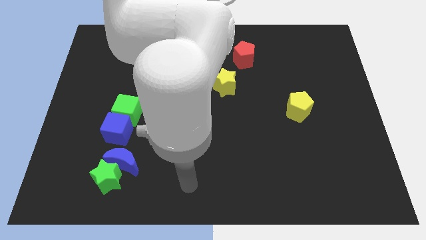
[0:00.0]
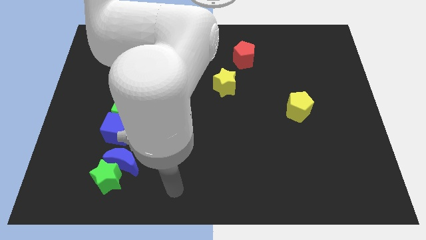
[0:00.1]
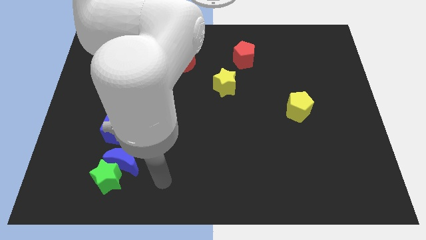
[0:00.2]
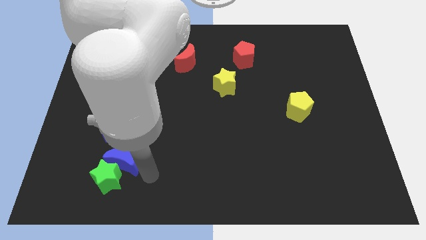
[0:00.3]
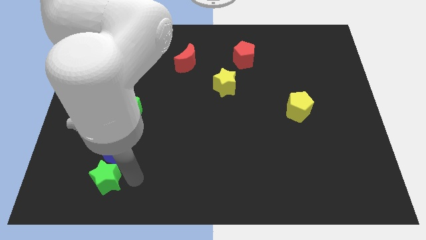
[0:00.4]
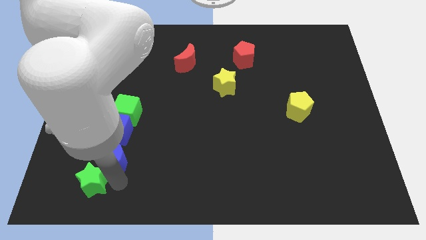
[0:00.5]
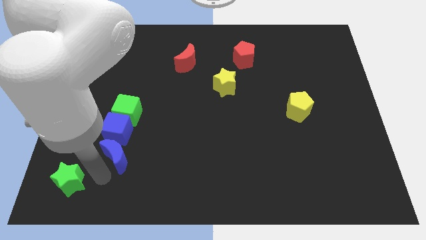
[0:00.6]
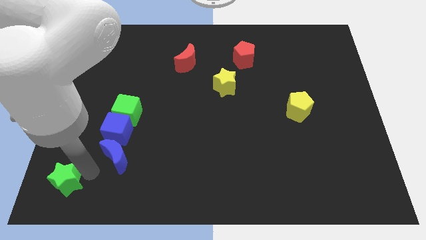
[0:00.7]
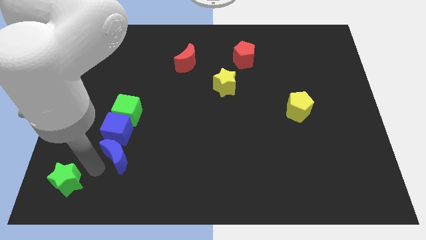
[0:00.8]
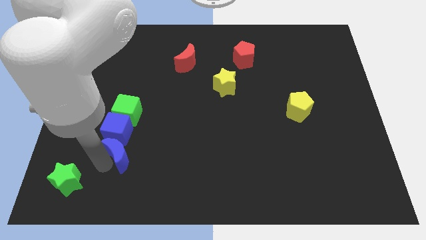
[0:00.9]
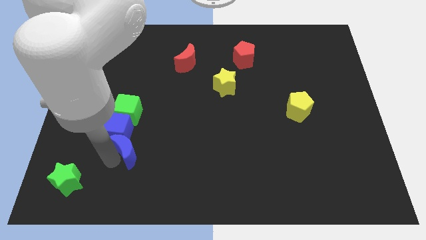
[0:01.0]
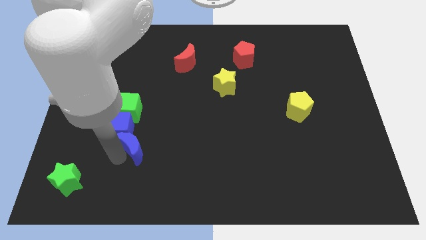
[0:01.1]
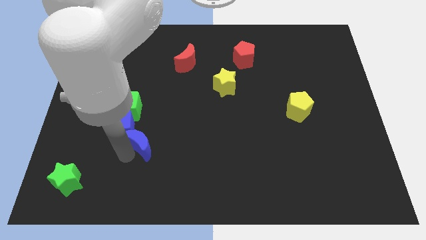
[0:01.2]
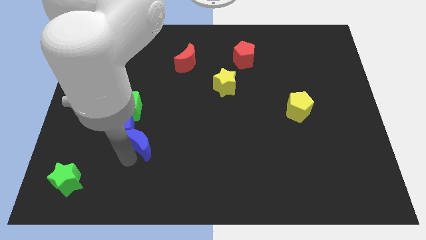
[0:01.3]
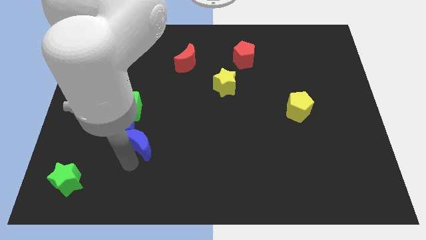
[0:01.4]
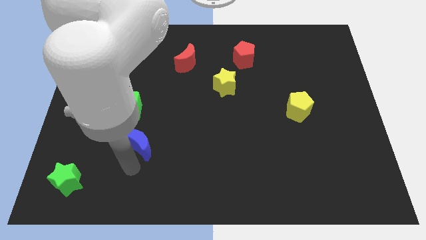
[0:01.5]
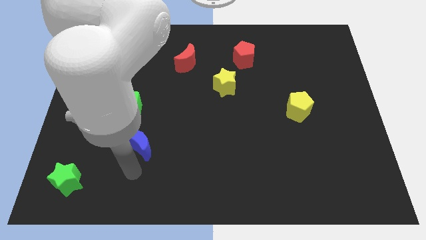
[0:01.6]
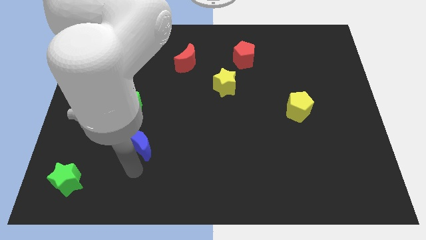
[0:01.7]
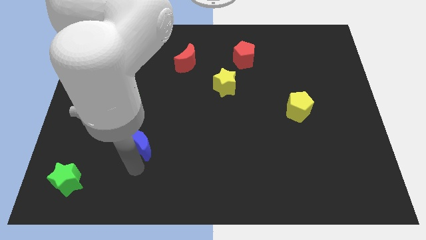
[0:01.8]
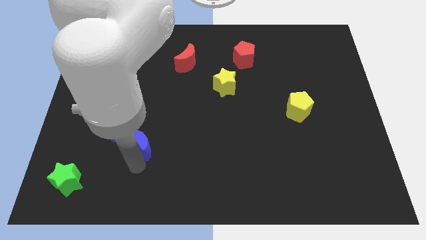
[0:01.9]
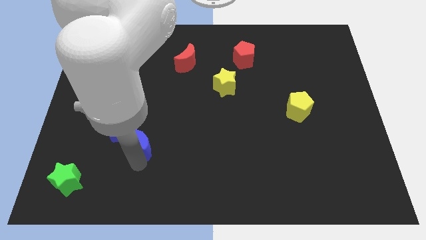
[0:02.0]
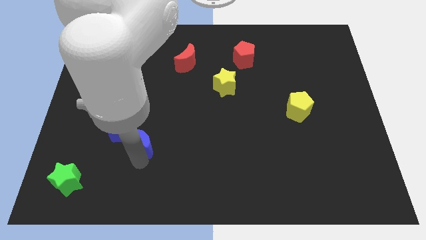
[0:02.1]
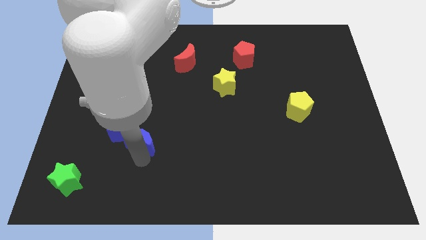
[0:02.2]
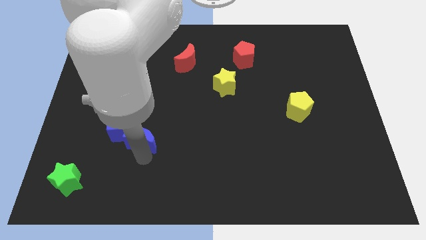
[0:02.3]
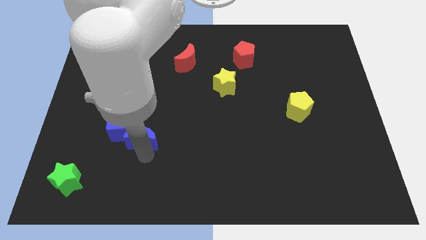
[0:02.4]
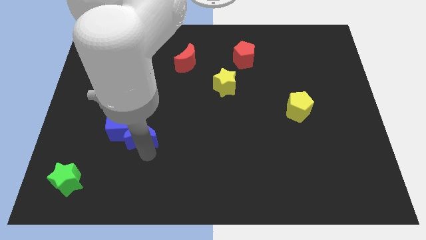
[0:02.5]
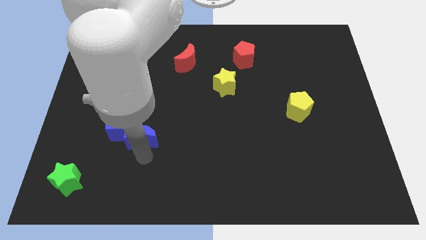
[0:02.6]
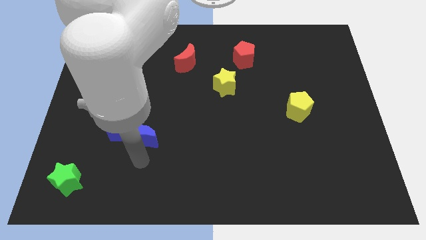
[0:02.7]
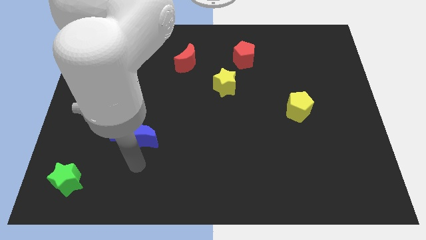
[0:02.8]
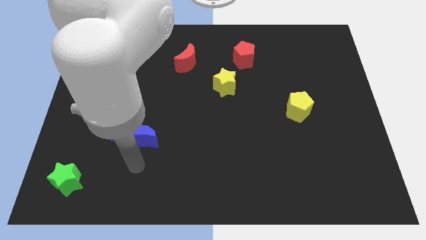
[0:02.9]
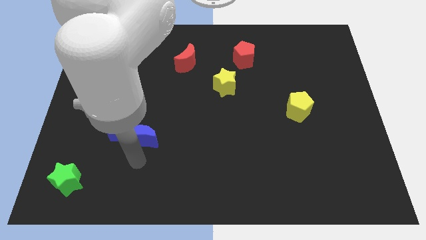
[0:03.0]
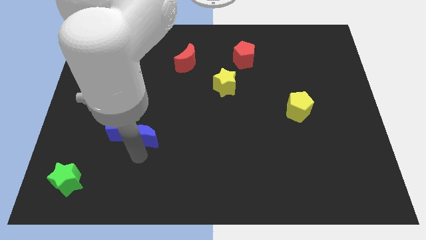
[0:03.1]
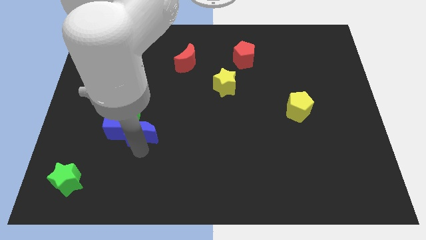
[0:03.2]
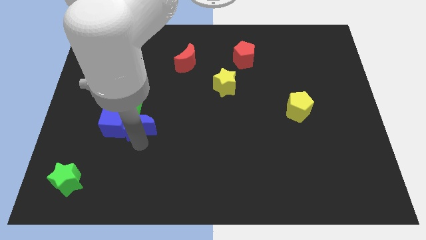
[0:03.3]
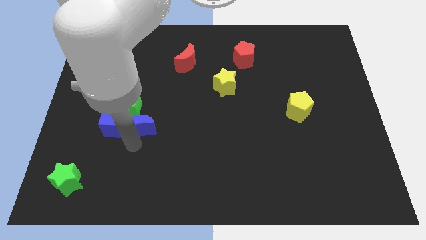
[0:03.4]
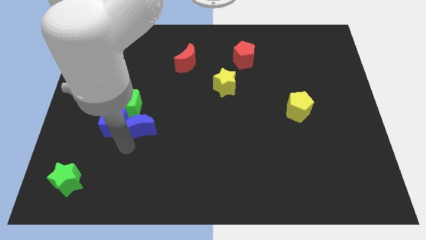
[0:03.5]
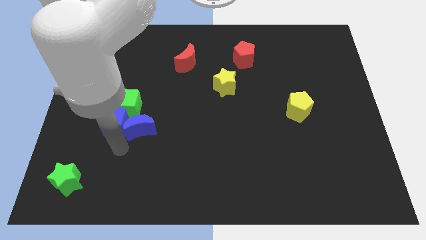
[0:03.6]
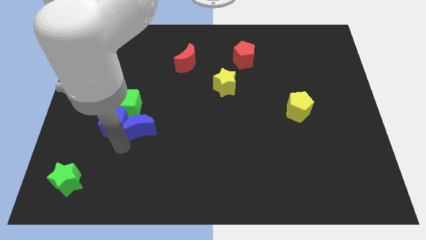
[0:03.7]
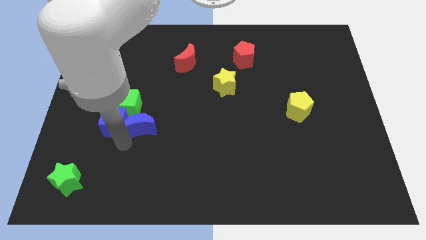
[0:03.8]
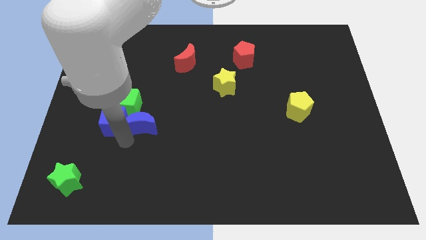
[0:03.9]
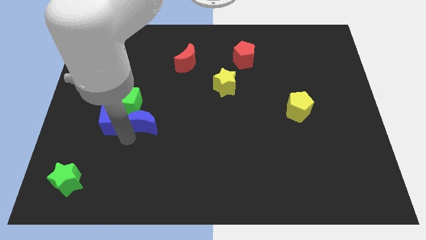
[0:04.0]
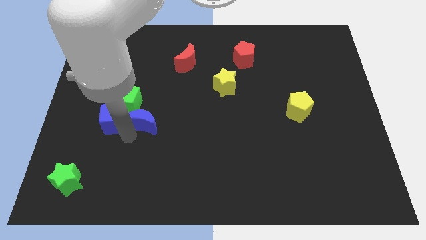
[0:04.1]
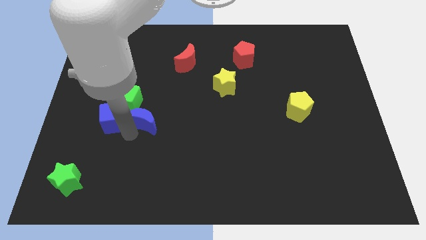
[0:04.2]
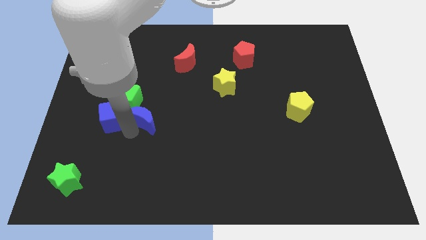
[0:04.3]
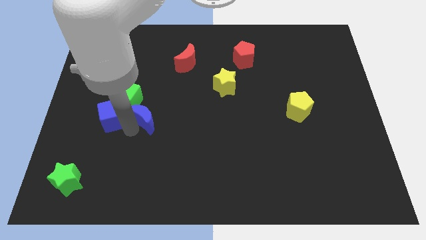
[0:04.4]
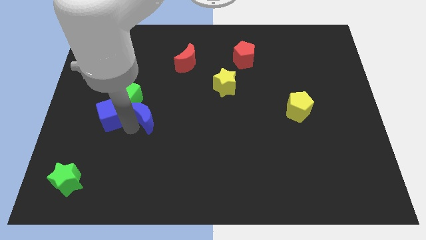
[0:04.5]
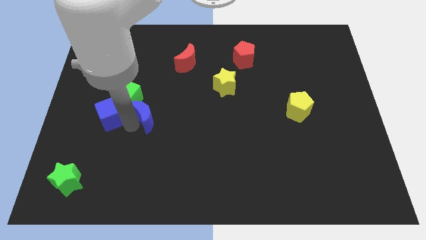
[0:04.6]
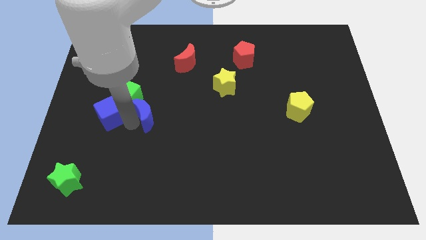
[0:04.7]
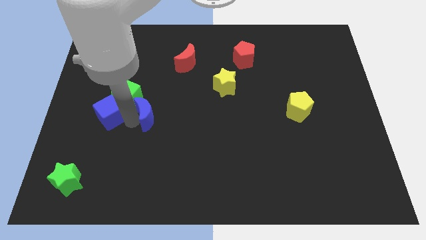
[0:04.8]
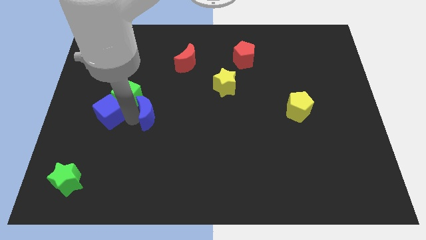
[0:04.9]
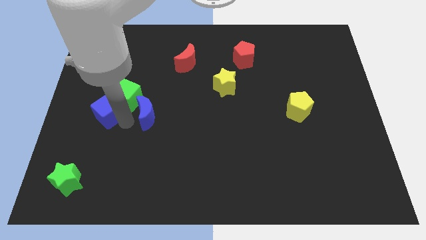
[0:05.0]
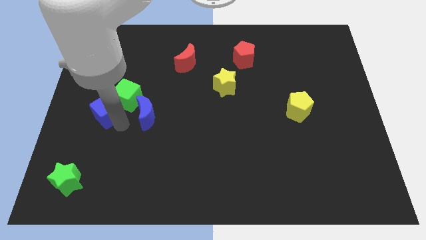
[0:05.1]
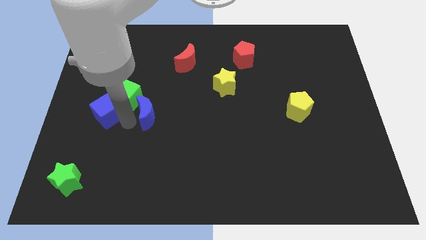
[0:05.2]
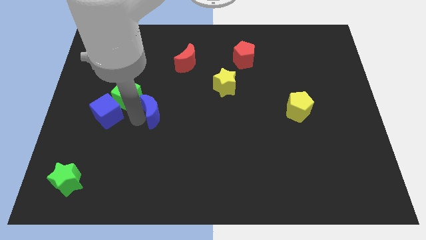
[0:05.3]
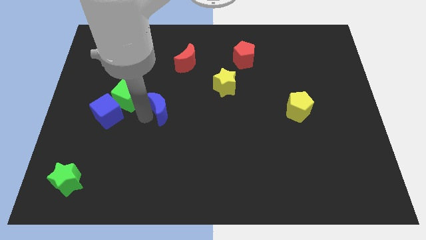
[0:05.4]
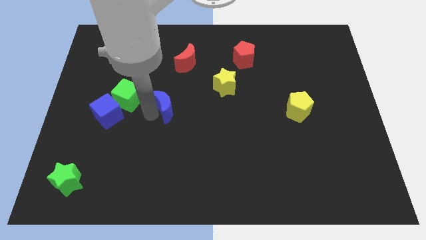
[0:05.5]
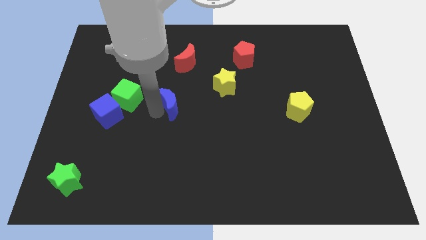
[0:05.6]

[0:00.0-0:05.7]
slide the blue moon to the bottom of the red moon
